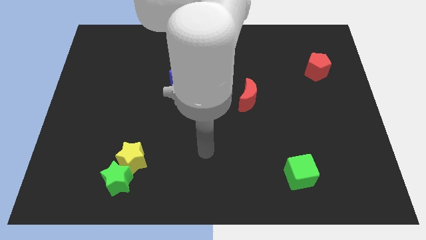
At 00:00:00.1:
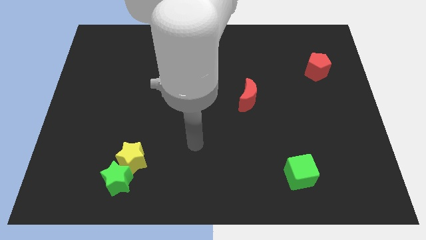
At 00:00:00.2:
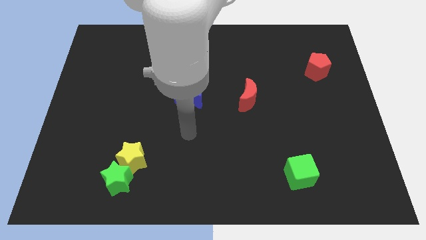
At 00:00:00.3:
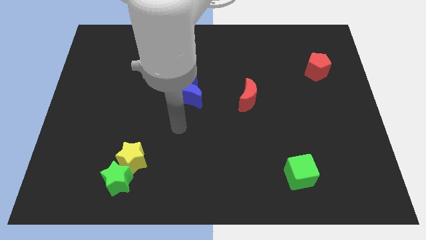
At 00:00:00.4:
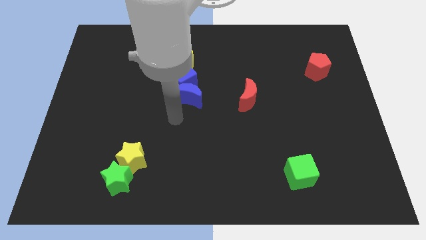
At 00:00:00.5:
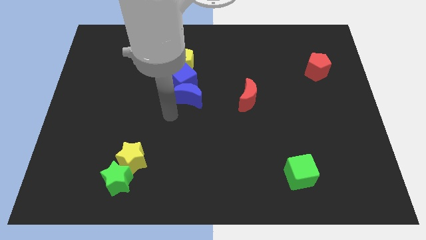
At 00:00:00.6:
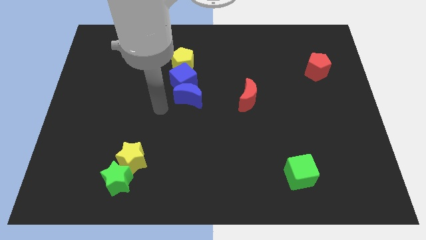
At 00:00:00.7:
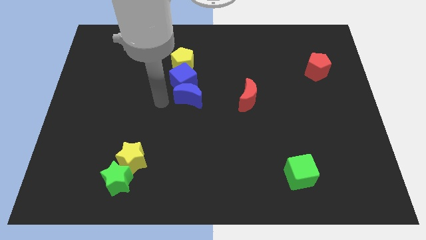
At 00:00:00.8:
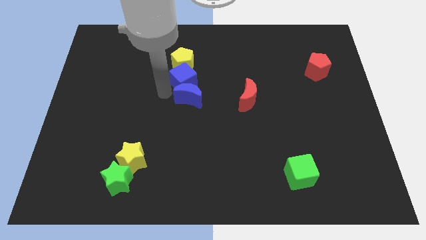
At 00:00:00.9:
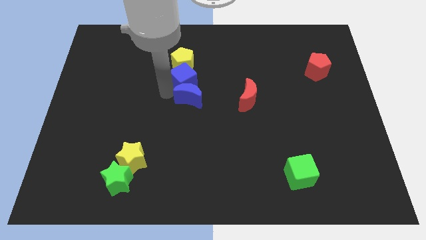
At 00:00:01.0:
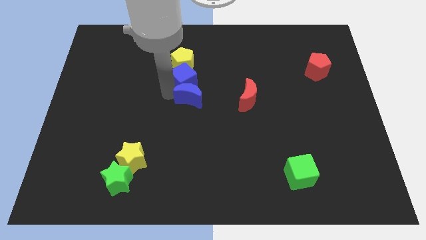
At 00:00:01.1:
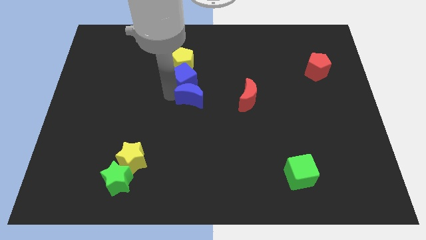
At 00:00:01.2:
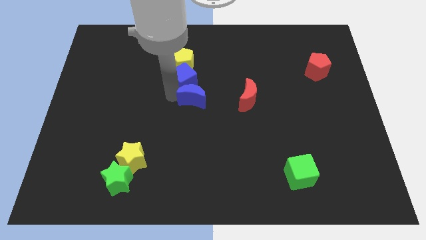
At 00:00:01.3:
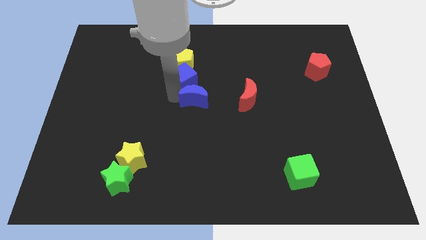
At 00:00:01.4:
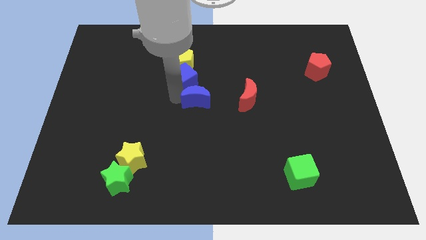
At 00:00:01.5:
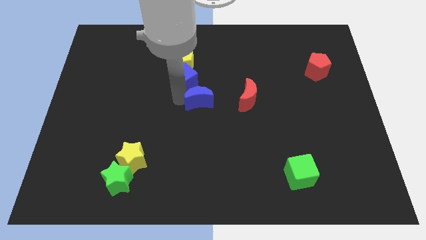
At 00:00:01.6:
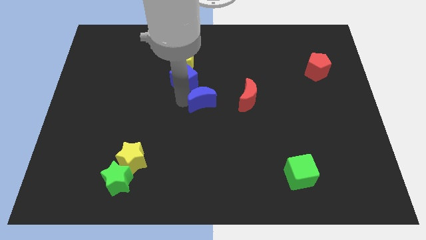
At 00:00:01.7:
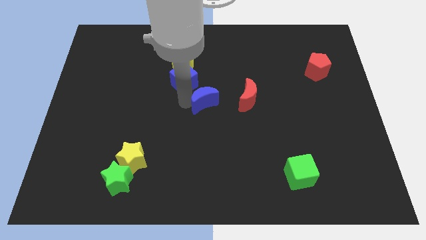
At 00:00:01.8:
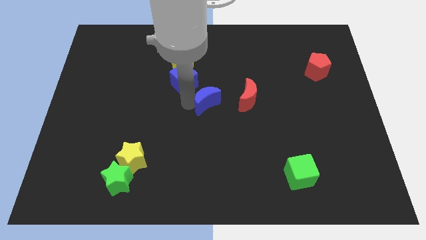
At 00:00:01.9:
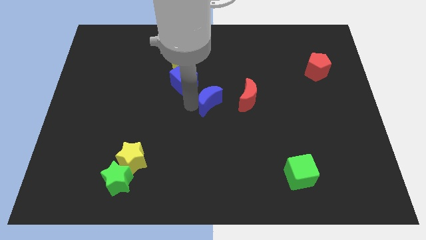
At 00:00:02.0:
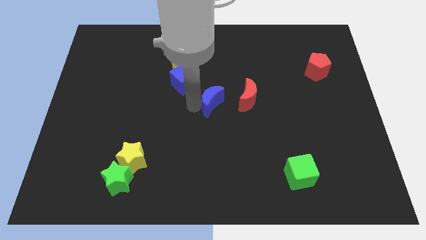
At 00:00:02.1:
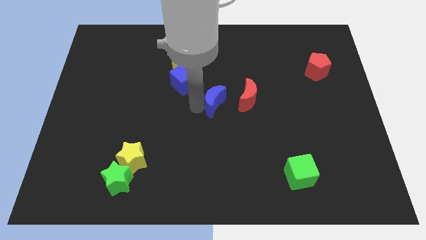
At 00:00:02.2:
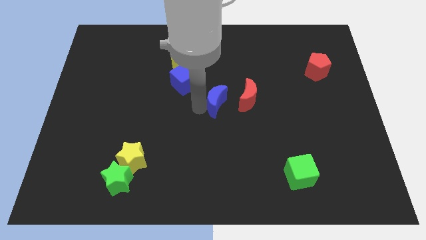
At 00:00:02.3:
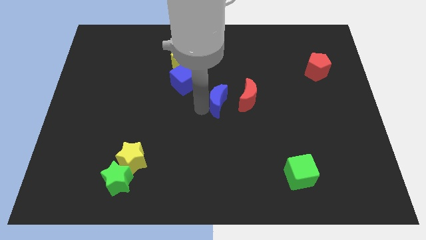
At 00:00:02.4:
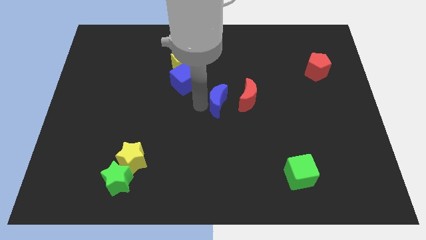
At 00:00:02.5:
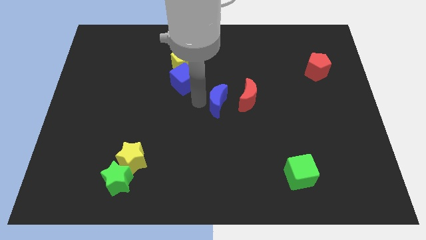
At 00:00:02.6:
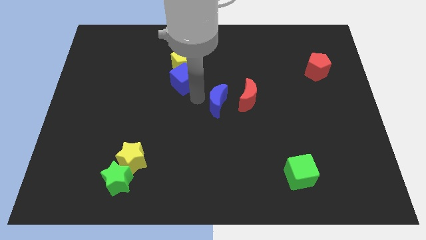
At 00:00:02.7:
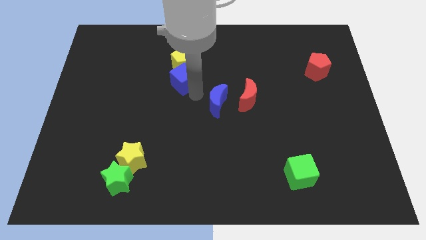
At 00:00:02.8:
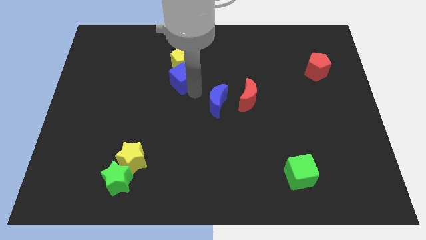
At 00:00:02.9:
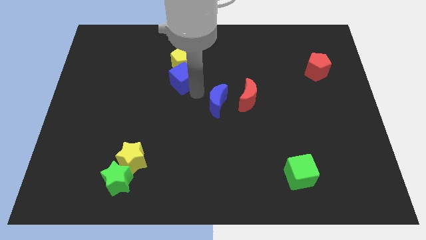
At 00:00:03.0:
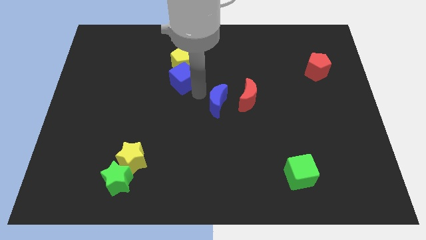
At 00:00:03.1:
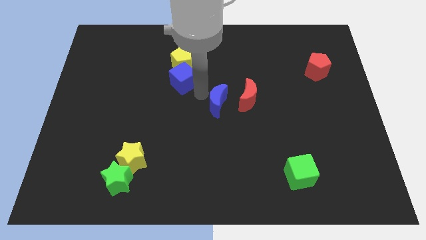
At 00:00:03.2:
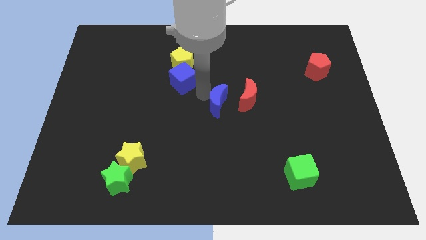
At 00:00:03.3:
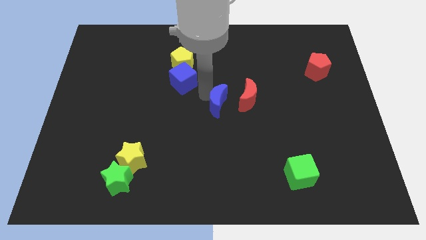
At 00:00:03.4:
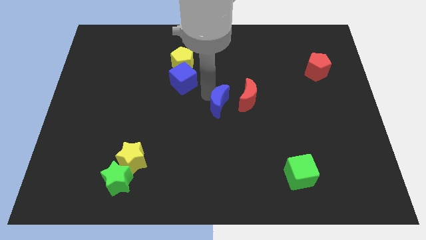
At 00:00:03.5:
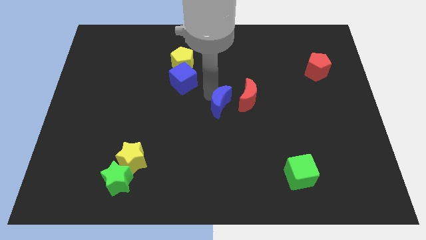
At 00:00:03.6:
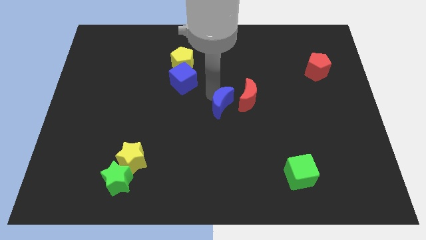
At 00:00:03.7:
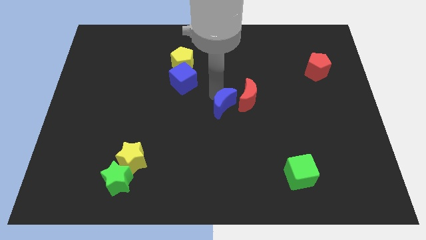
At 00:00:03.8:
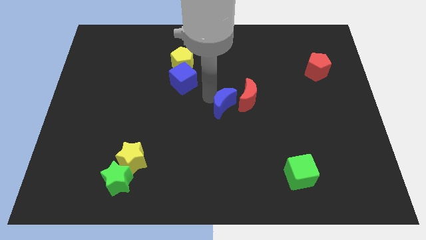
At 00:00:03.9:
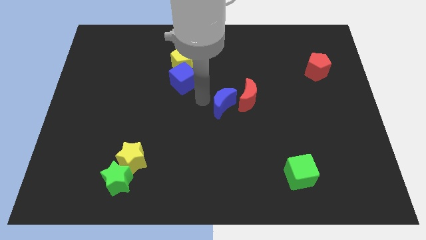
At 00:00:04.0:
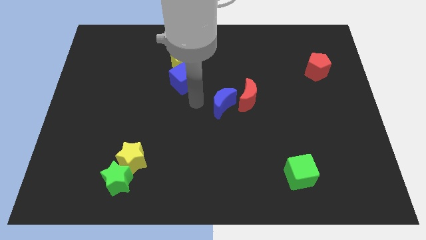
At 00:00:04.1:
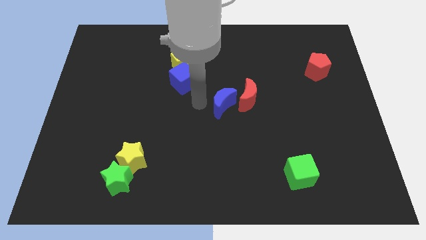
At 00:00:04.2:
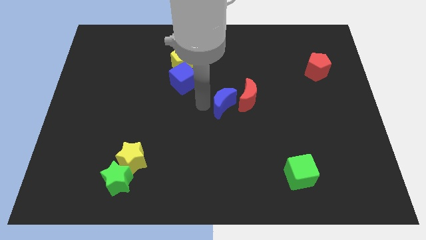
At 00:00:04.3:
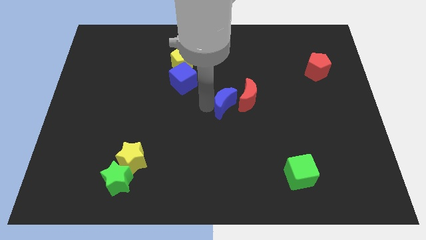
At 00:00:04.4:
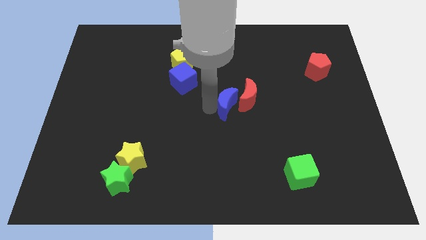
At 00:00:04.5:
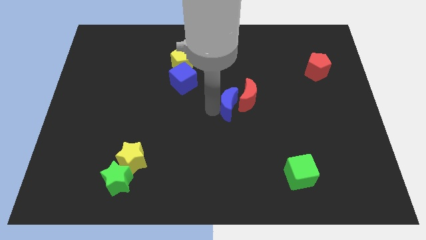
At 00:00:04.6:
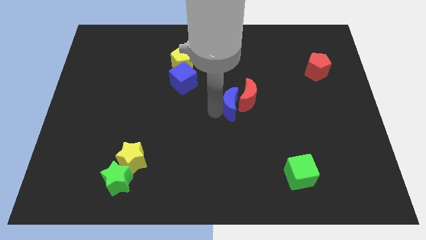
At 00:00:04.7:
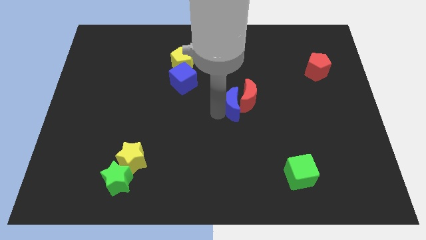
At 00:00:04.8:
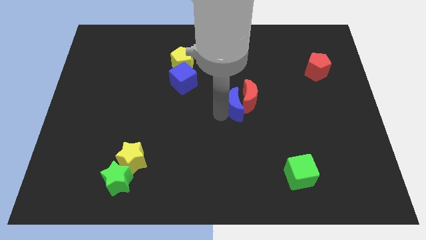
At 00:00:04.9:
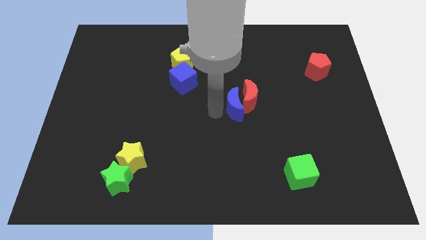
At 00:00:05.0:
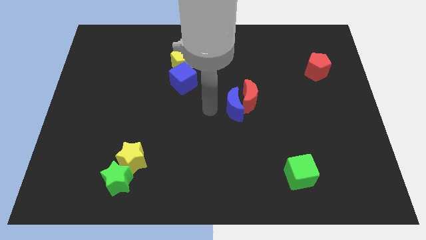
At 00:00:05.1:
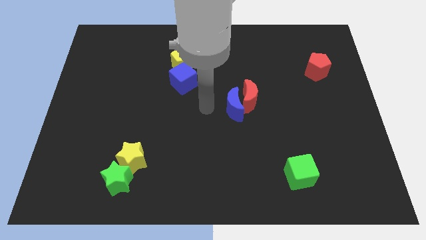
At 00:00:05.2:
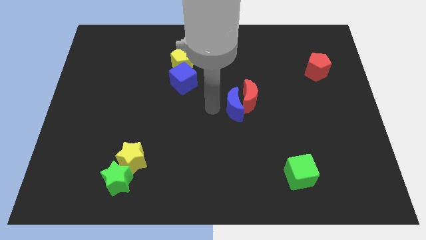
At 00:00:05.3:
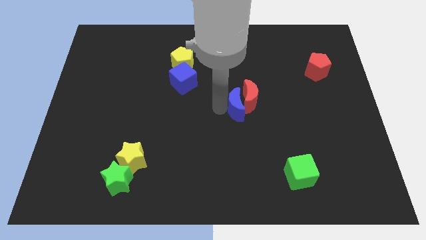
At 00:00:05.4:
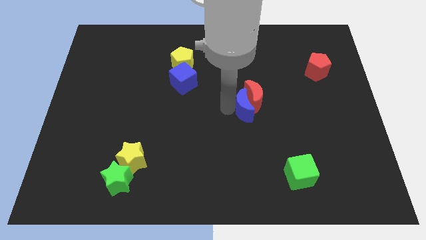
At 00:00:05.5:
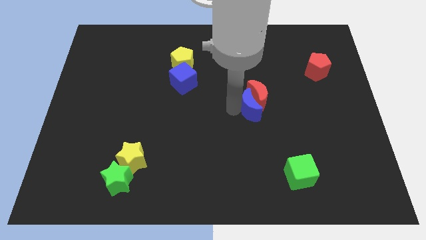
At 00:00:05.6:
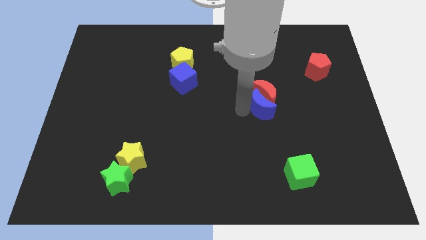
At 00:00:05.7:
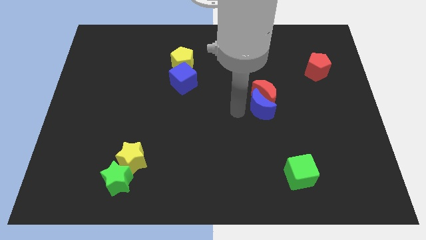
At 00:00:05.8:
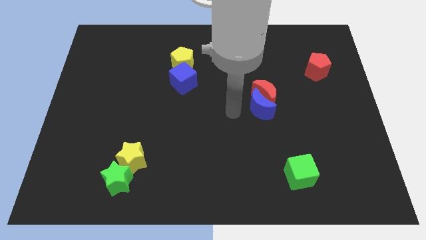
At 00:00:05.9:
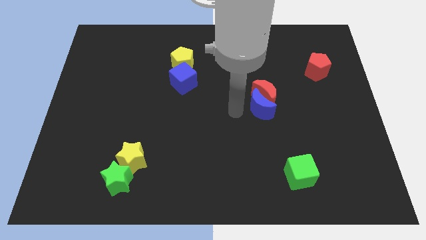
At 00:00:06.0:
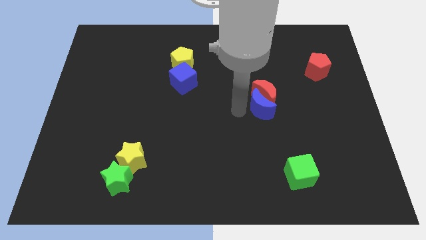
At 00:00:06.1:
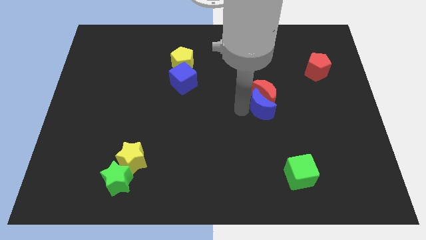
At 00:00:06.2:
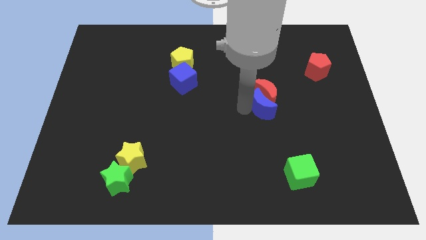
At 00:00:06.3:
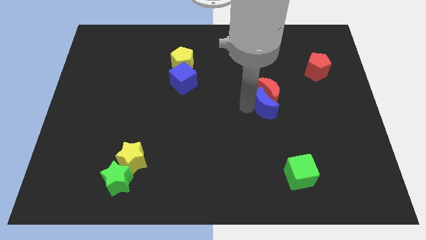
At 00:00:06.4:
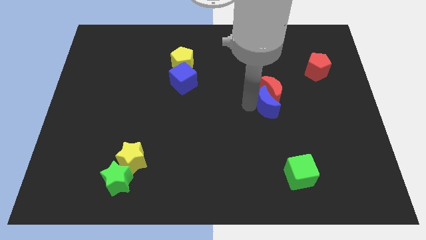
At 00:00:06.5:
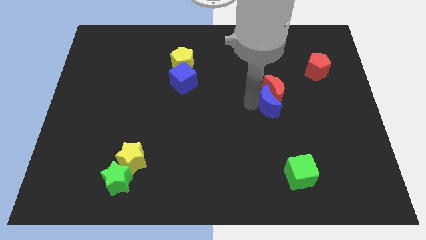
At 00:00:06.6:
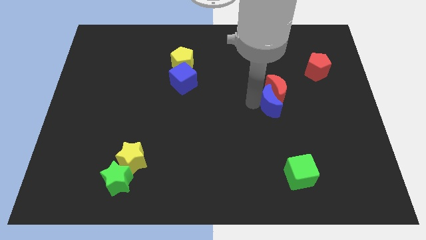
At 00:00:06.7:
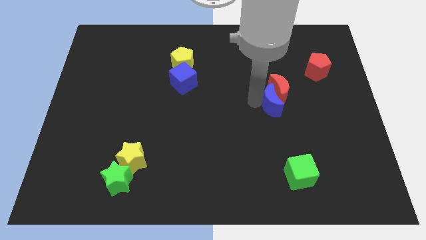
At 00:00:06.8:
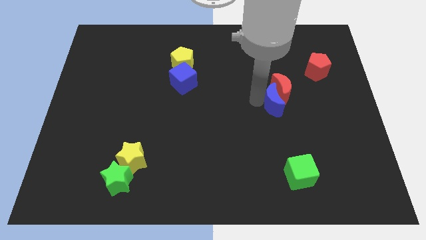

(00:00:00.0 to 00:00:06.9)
slide the blue moon to the right

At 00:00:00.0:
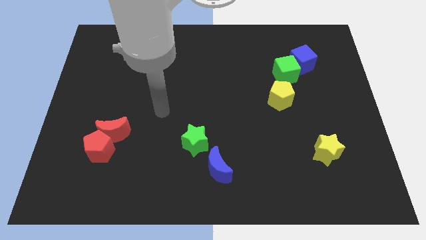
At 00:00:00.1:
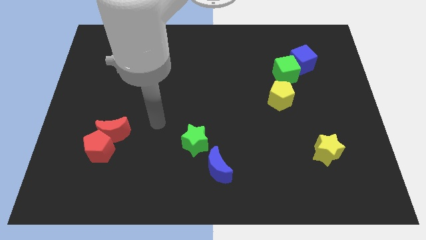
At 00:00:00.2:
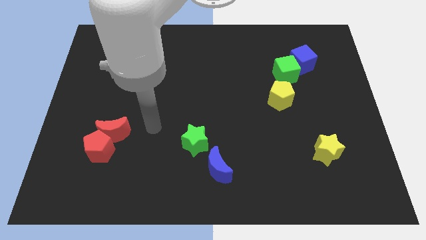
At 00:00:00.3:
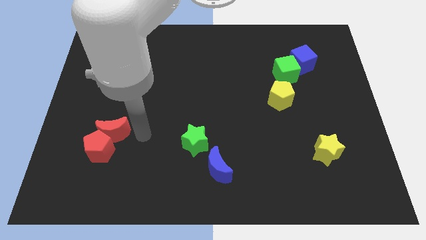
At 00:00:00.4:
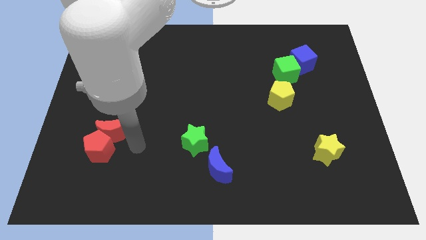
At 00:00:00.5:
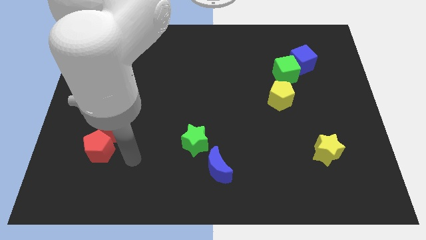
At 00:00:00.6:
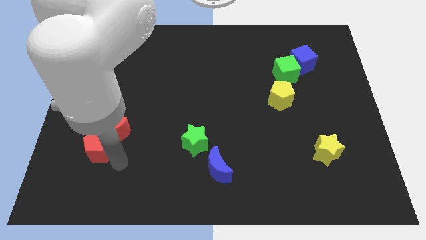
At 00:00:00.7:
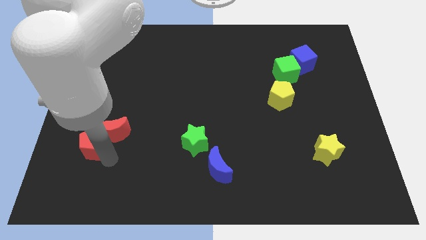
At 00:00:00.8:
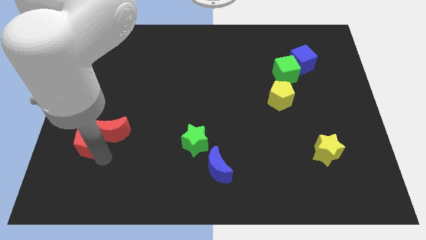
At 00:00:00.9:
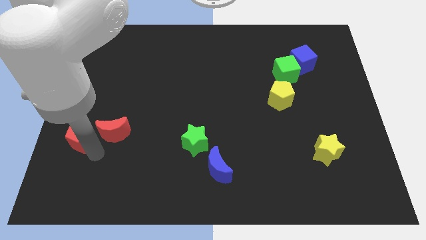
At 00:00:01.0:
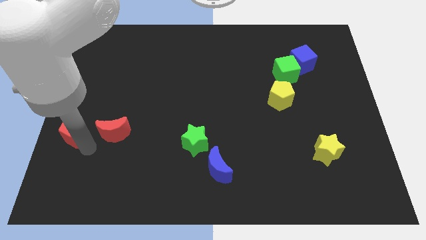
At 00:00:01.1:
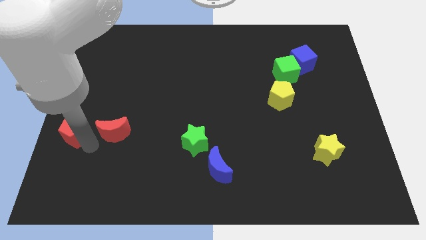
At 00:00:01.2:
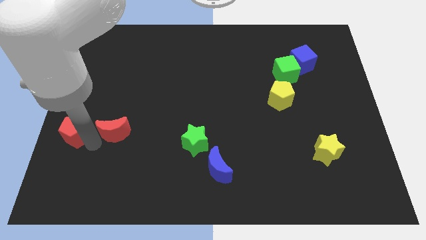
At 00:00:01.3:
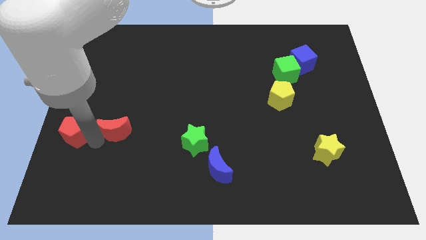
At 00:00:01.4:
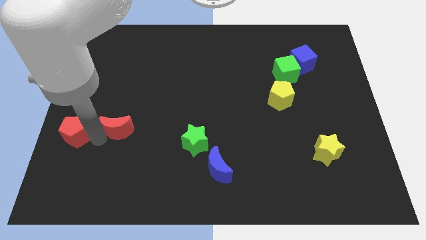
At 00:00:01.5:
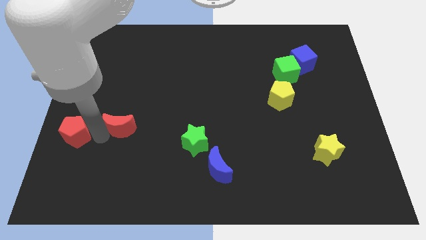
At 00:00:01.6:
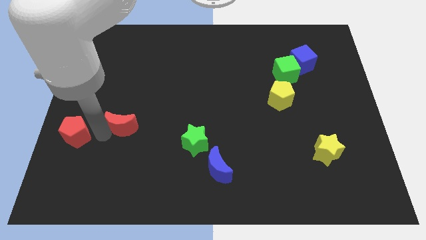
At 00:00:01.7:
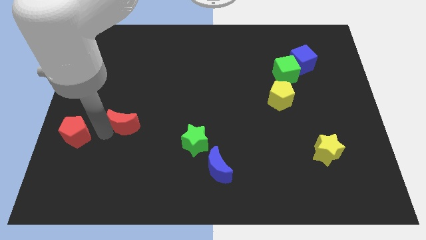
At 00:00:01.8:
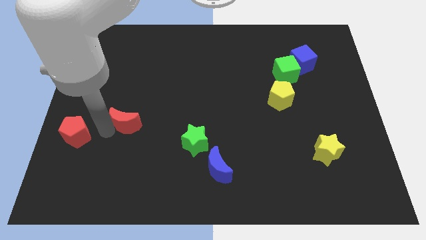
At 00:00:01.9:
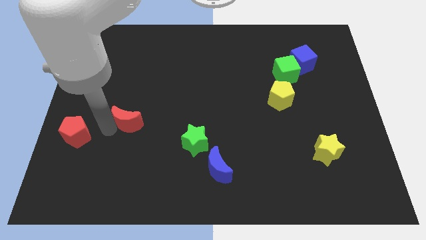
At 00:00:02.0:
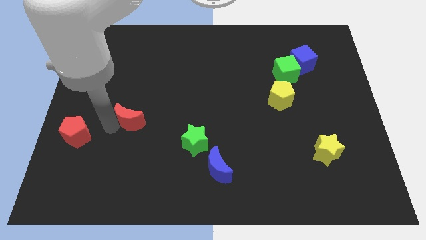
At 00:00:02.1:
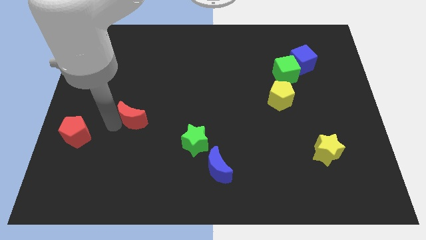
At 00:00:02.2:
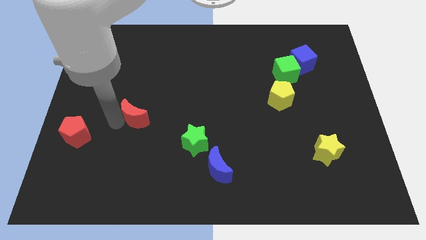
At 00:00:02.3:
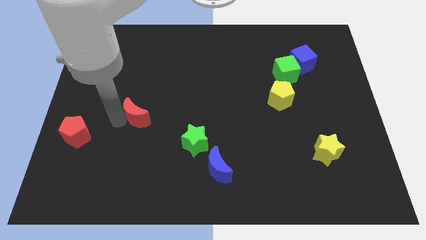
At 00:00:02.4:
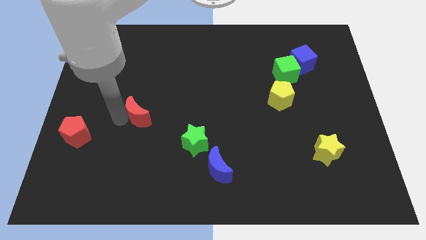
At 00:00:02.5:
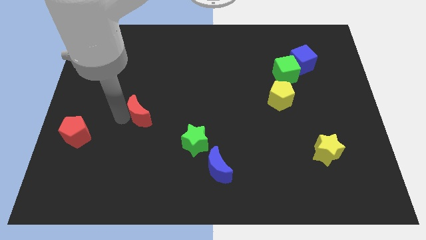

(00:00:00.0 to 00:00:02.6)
slide the red moon a bit diagonally upwards and right
